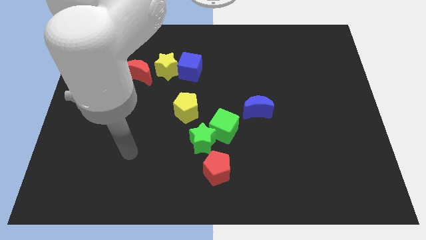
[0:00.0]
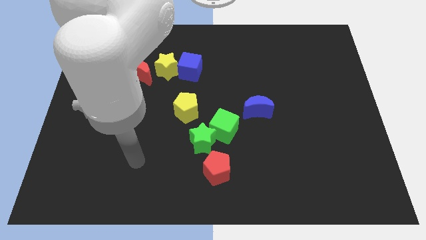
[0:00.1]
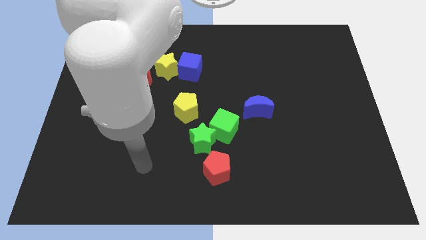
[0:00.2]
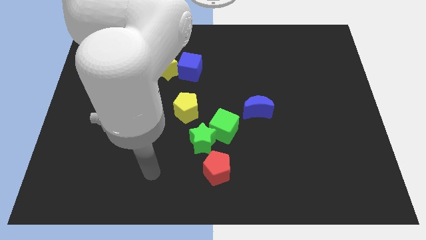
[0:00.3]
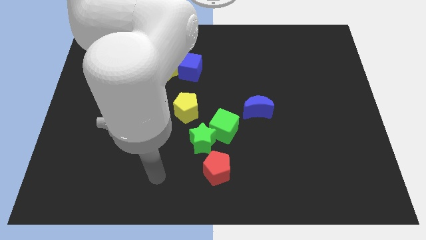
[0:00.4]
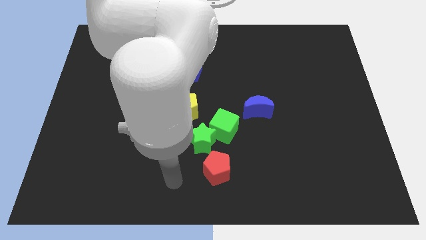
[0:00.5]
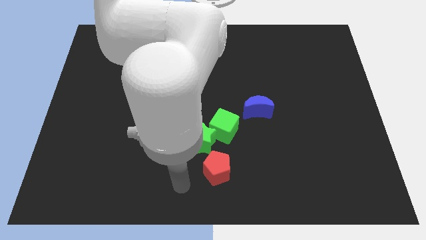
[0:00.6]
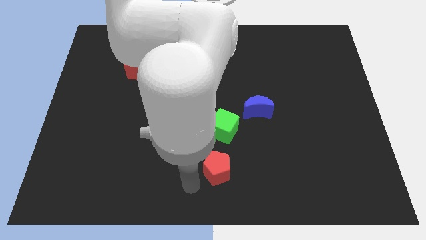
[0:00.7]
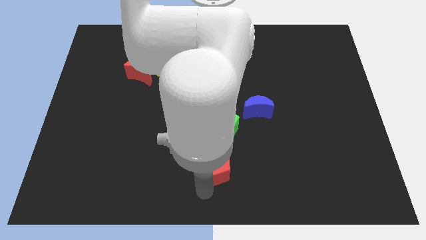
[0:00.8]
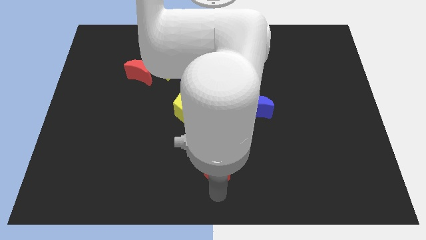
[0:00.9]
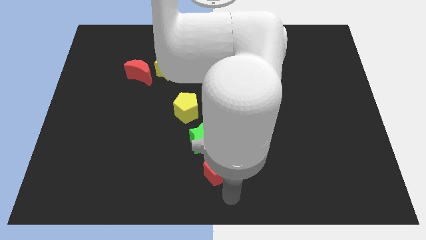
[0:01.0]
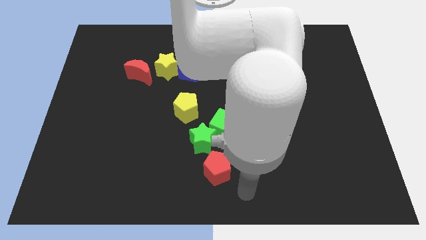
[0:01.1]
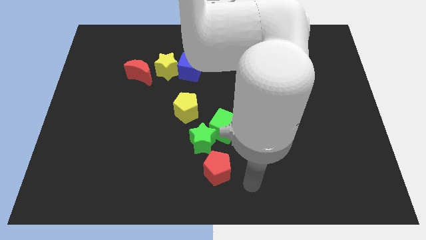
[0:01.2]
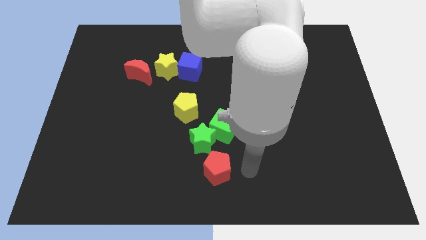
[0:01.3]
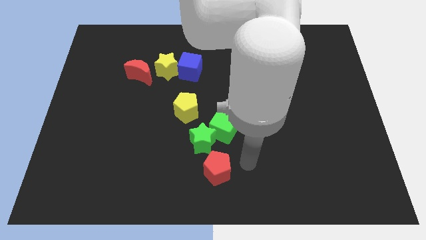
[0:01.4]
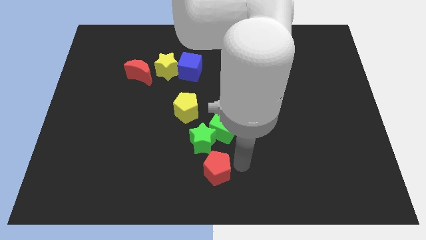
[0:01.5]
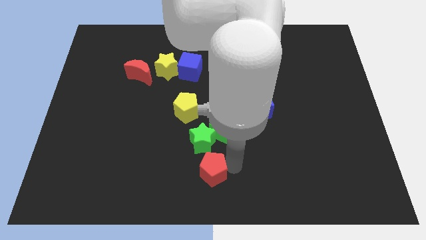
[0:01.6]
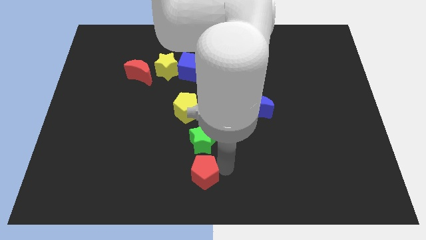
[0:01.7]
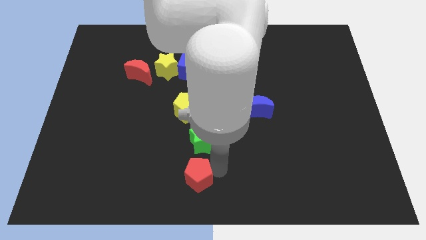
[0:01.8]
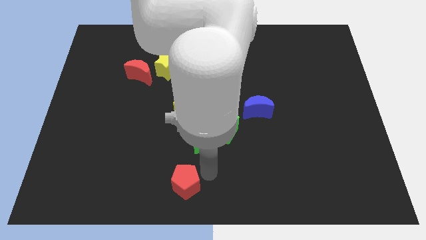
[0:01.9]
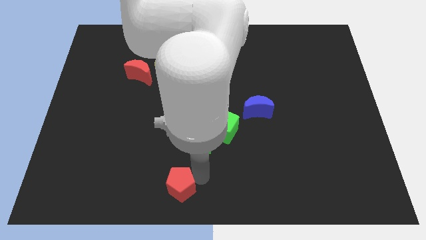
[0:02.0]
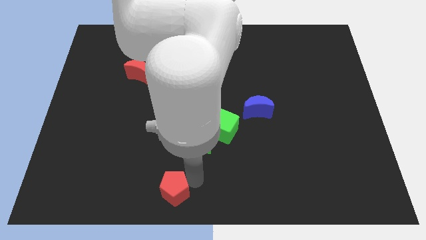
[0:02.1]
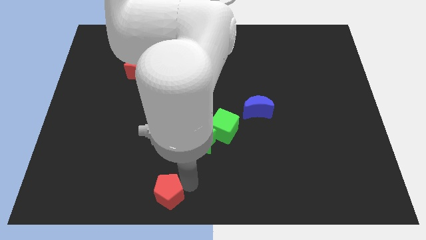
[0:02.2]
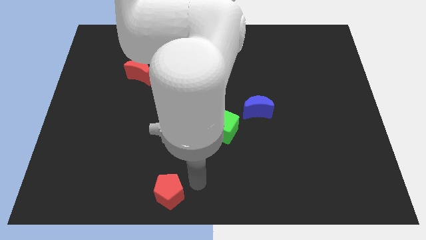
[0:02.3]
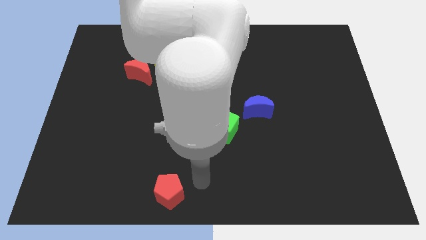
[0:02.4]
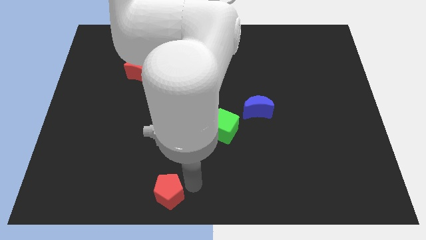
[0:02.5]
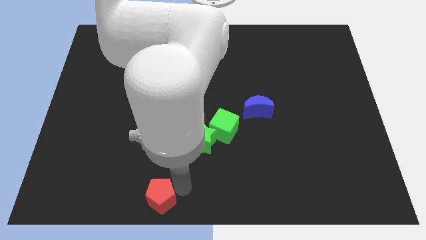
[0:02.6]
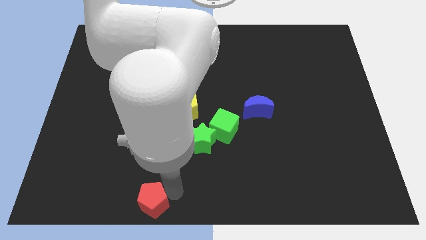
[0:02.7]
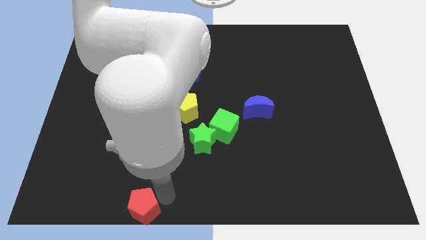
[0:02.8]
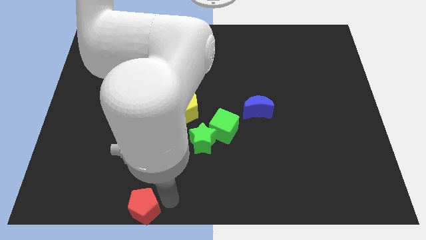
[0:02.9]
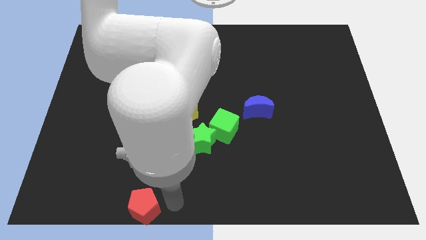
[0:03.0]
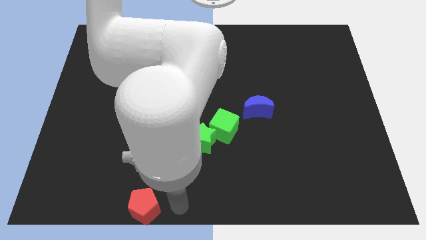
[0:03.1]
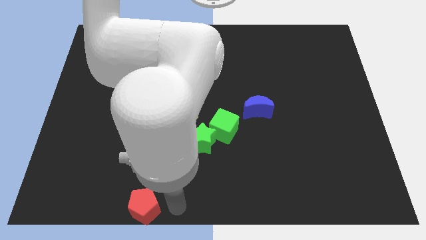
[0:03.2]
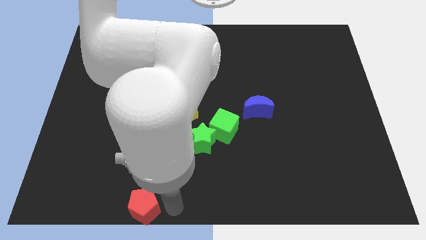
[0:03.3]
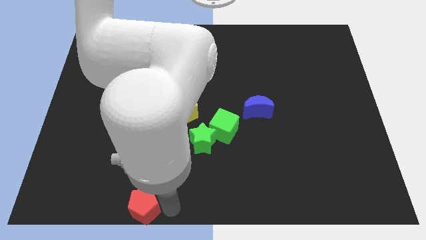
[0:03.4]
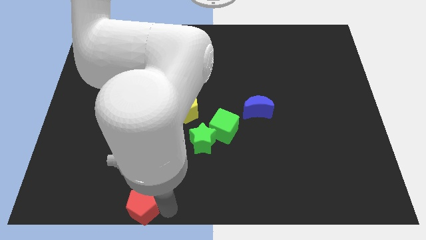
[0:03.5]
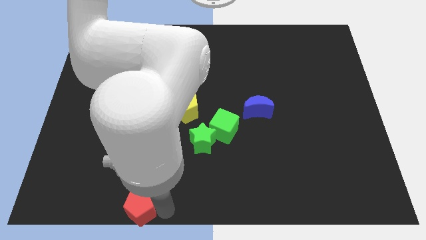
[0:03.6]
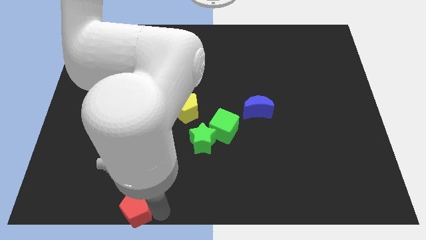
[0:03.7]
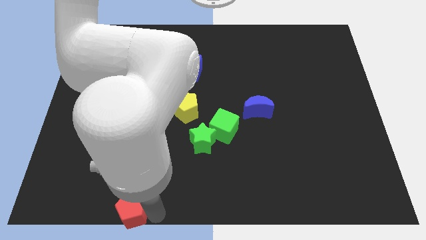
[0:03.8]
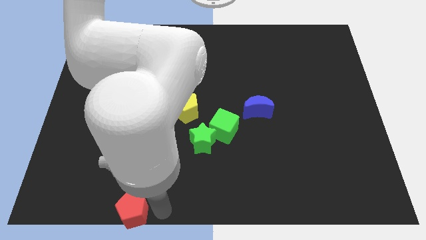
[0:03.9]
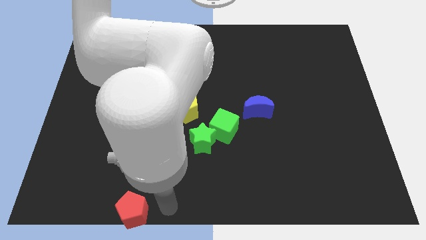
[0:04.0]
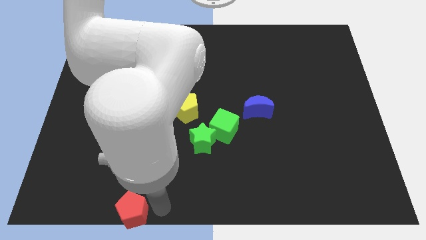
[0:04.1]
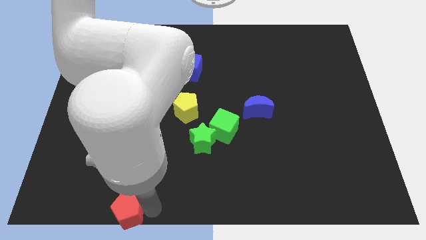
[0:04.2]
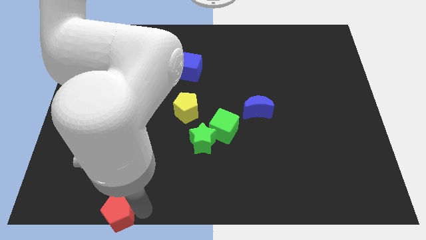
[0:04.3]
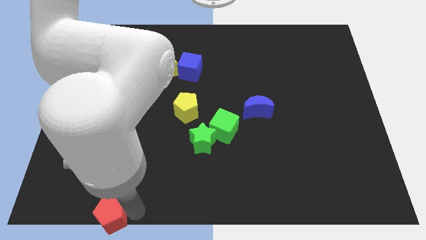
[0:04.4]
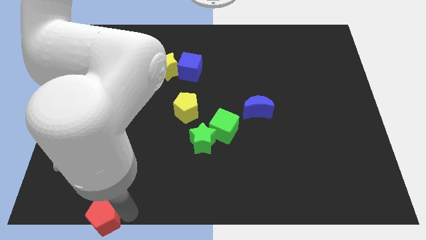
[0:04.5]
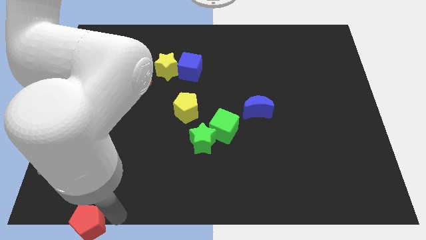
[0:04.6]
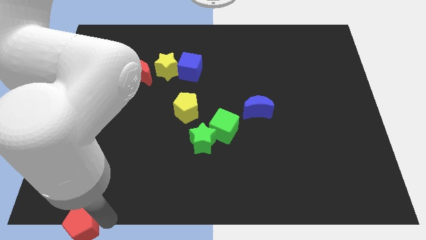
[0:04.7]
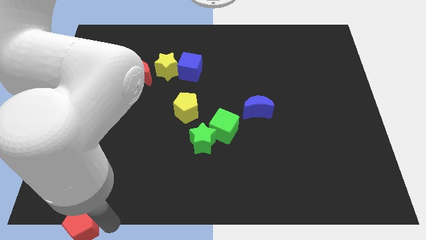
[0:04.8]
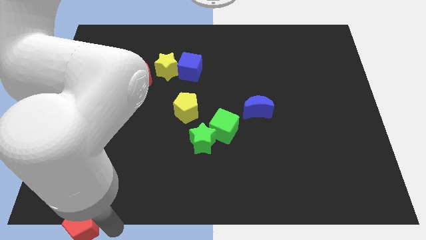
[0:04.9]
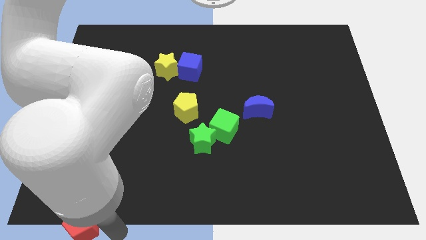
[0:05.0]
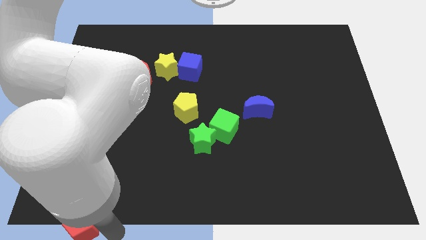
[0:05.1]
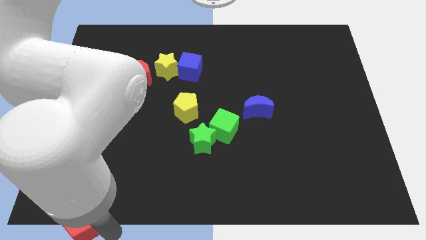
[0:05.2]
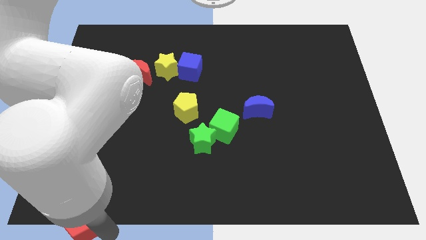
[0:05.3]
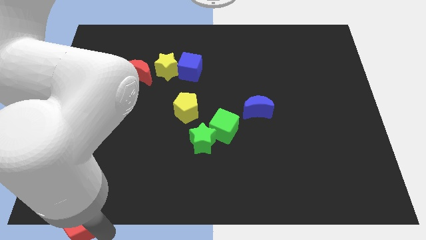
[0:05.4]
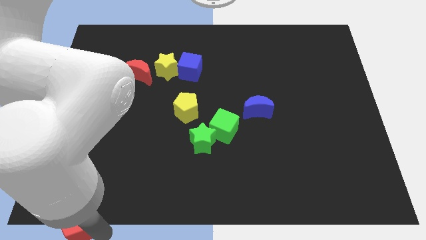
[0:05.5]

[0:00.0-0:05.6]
put the red pentagon to the bottom left
